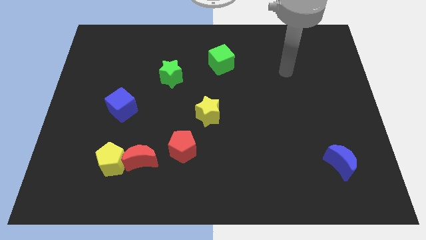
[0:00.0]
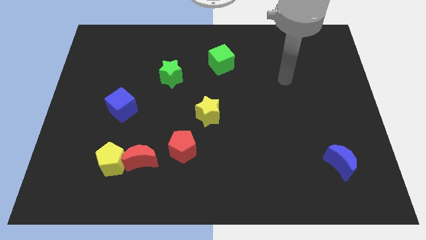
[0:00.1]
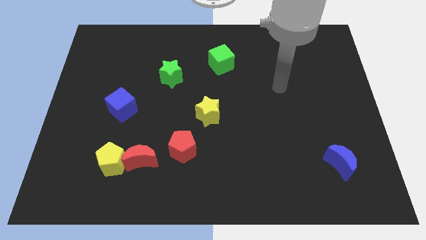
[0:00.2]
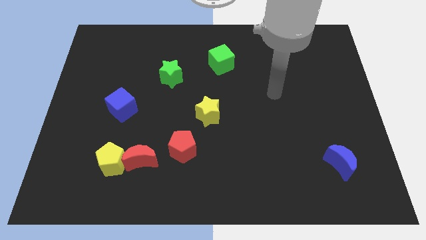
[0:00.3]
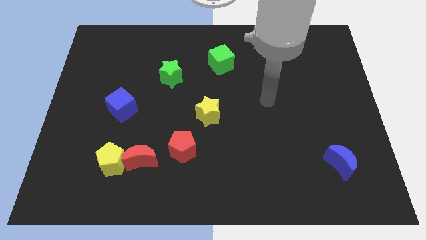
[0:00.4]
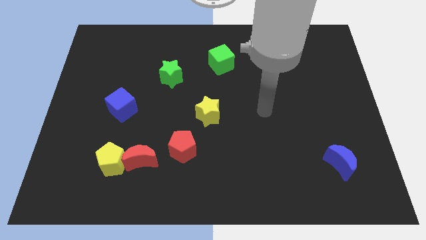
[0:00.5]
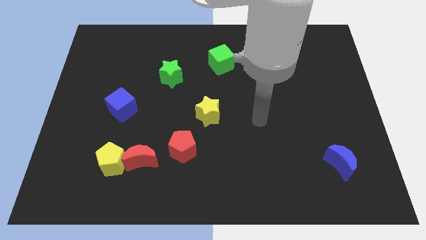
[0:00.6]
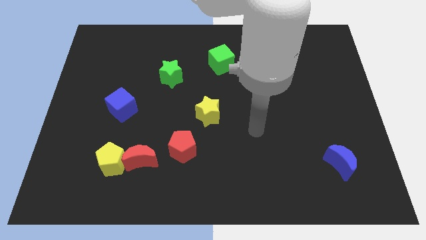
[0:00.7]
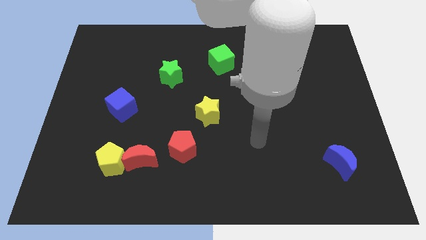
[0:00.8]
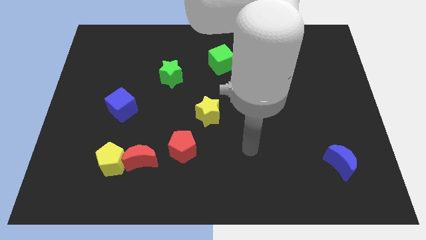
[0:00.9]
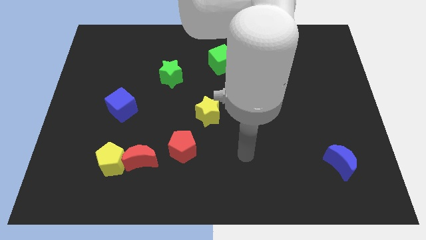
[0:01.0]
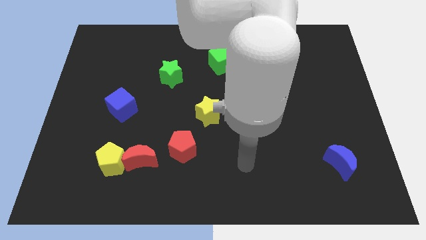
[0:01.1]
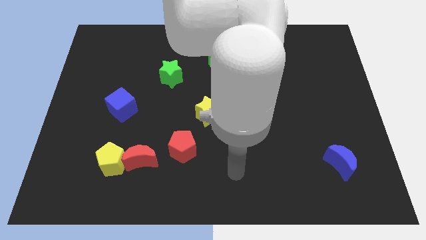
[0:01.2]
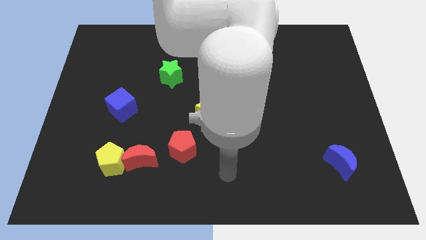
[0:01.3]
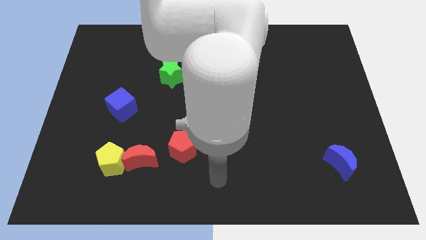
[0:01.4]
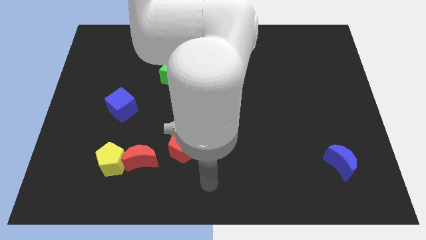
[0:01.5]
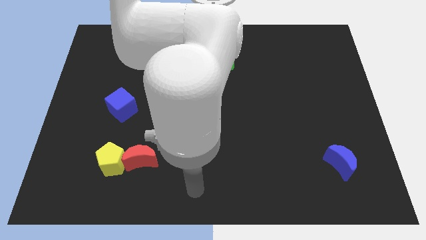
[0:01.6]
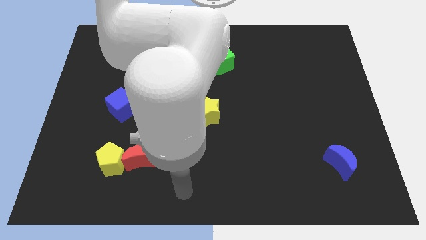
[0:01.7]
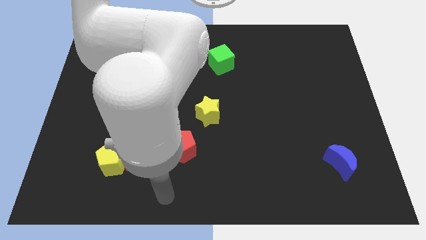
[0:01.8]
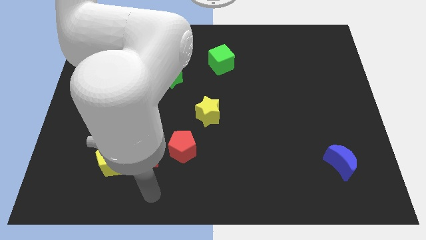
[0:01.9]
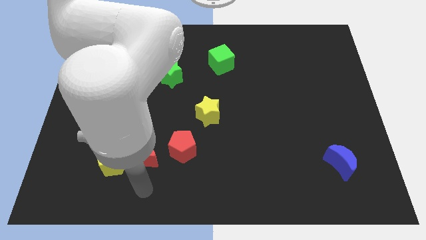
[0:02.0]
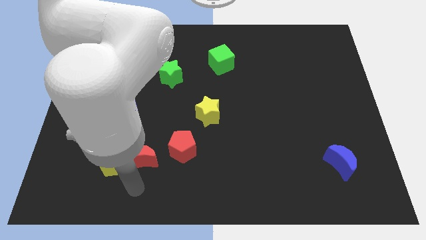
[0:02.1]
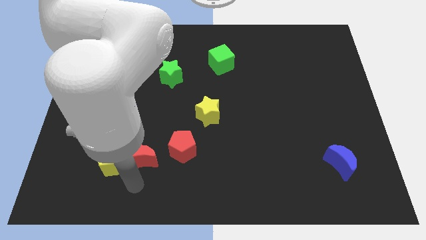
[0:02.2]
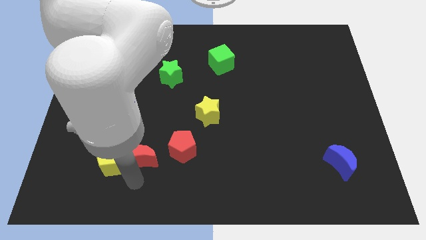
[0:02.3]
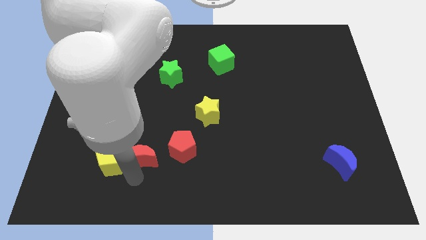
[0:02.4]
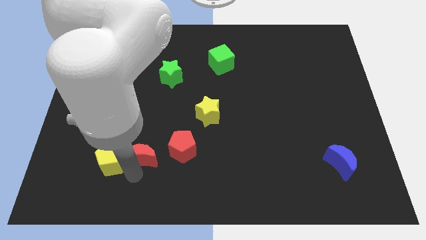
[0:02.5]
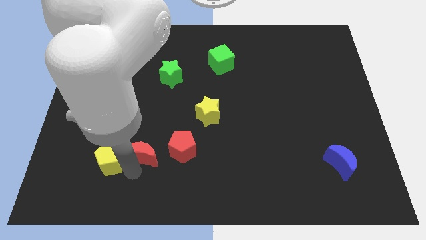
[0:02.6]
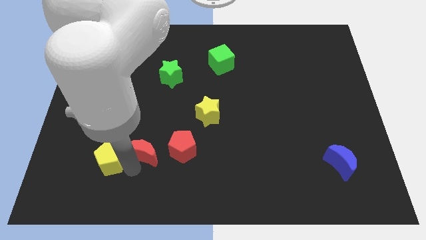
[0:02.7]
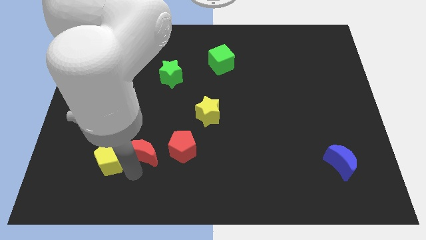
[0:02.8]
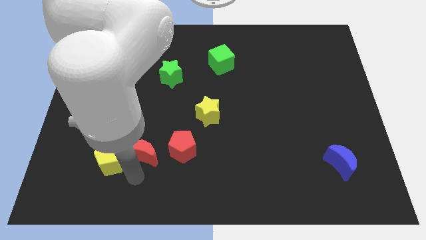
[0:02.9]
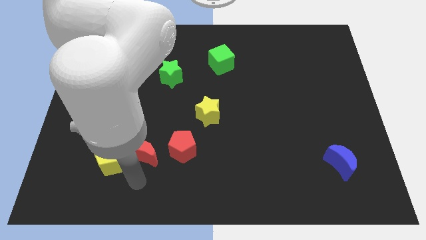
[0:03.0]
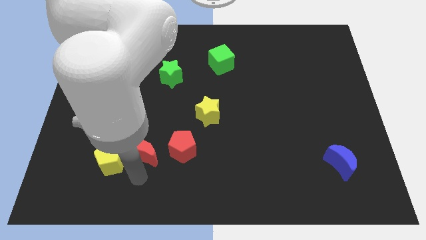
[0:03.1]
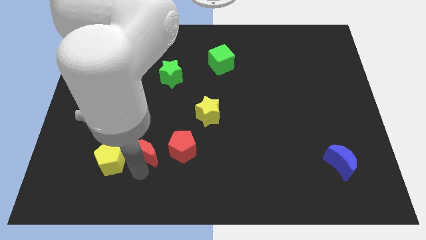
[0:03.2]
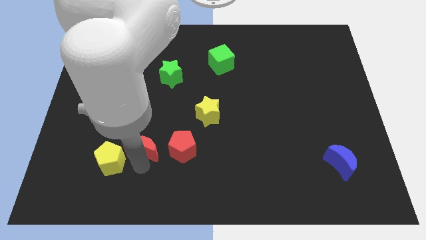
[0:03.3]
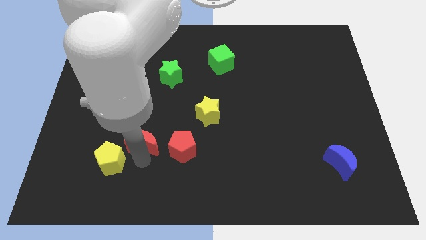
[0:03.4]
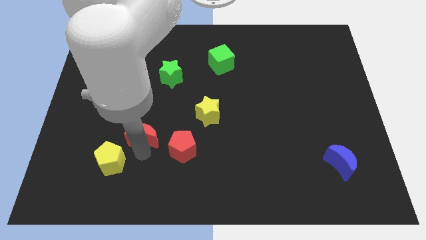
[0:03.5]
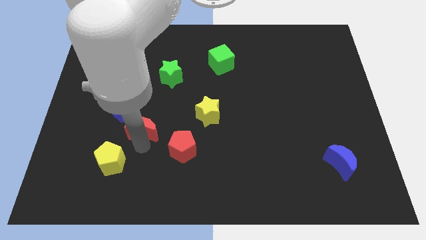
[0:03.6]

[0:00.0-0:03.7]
slightly push the red moon upwards

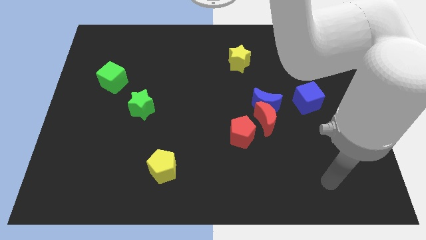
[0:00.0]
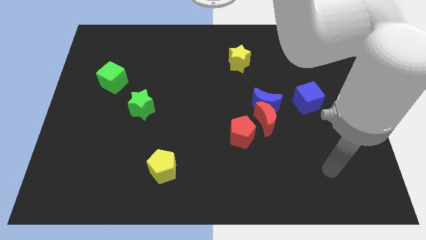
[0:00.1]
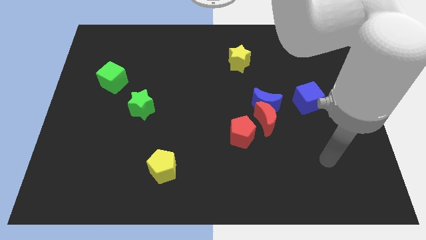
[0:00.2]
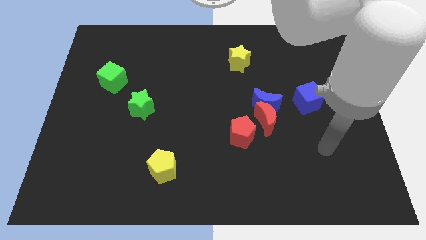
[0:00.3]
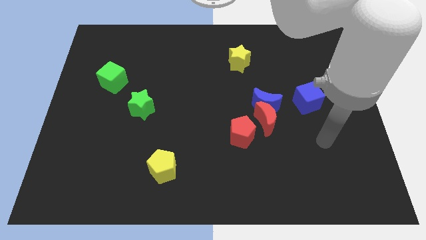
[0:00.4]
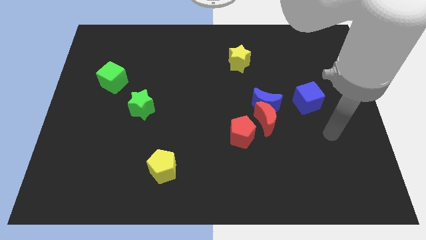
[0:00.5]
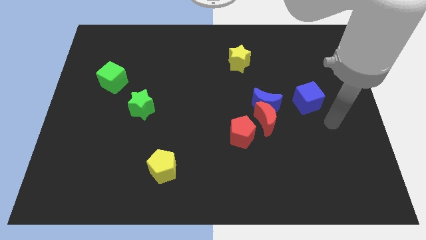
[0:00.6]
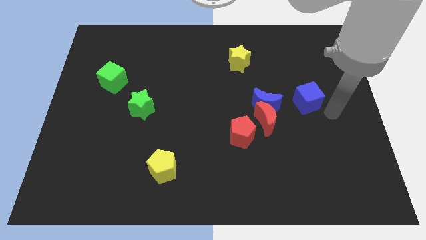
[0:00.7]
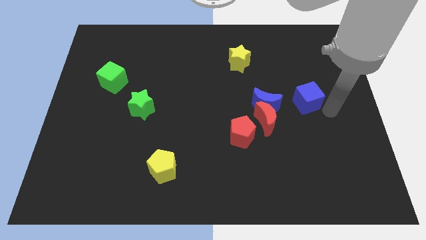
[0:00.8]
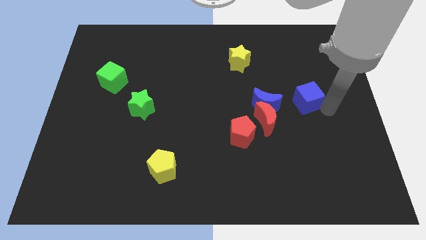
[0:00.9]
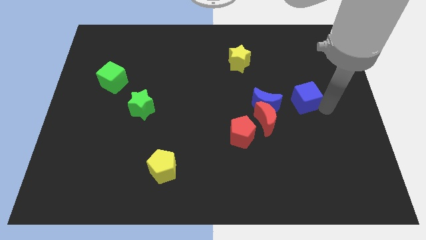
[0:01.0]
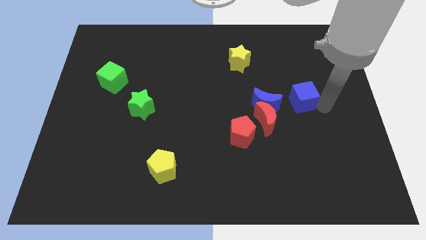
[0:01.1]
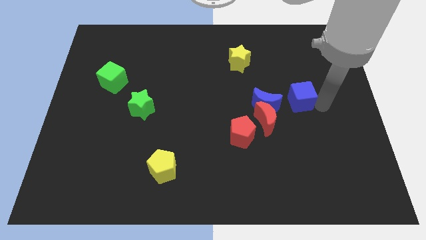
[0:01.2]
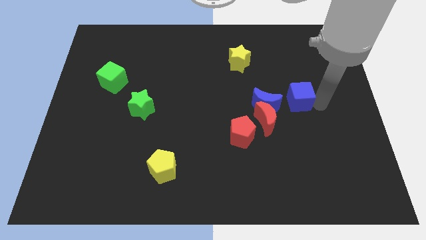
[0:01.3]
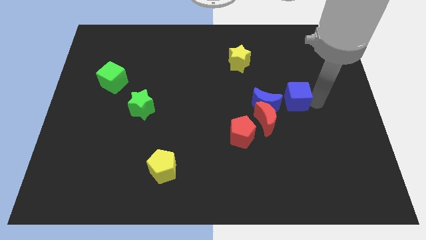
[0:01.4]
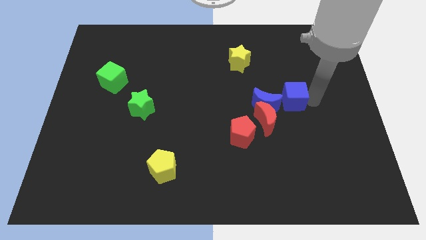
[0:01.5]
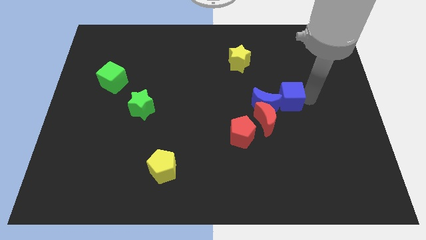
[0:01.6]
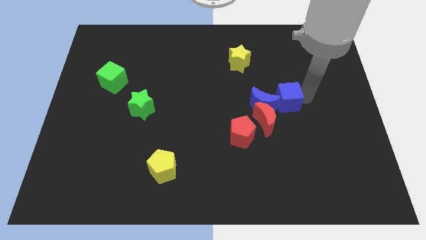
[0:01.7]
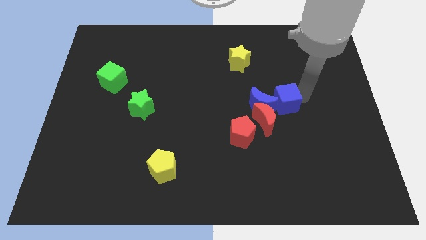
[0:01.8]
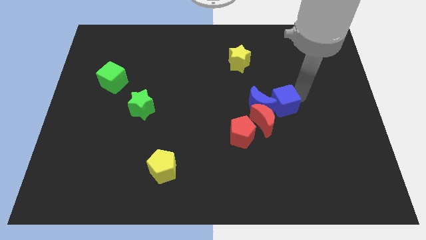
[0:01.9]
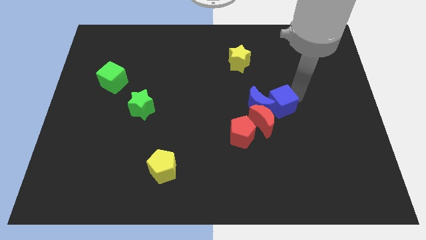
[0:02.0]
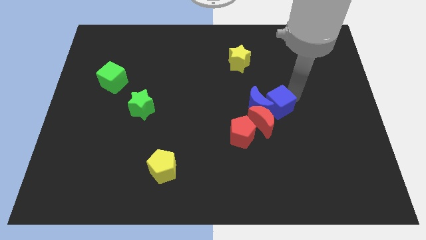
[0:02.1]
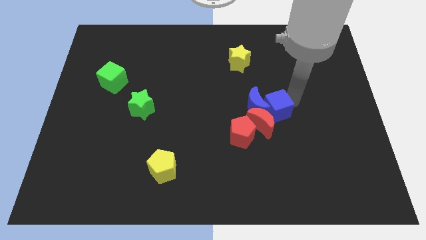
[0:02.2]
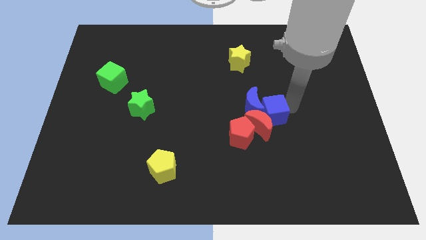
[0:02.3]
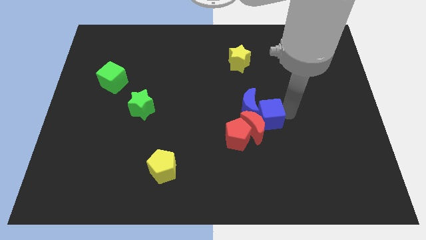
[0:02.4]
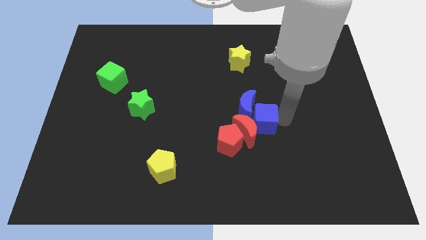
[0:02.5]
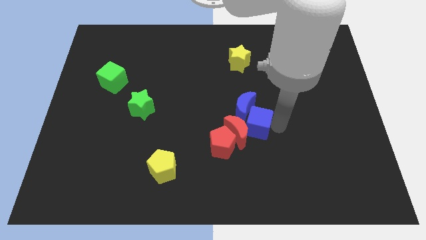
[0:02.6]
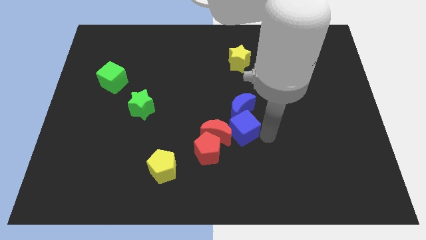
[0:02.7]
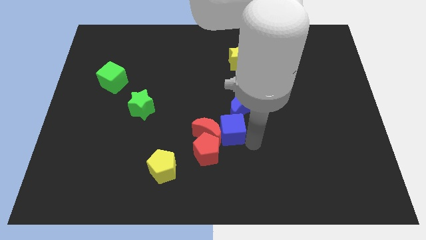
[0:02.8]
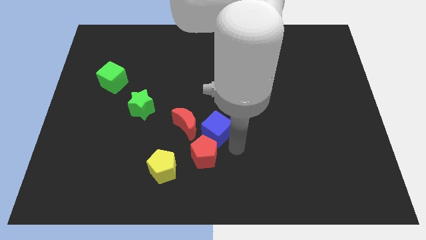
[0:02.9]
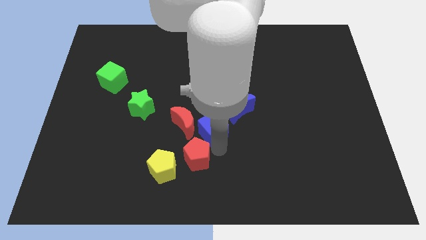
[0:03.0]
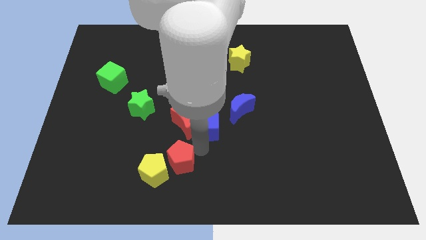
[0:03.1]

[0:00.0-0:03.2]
move the blue cube left

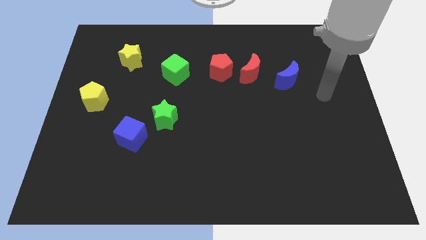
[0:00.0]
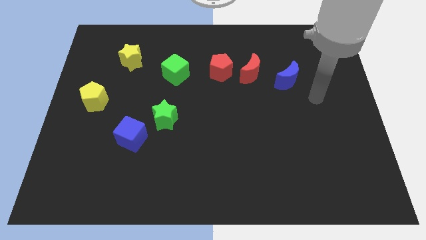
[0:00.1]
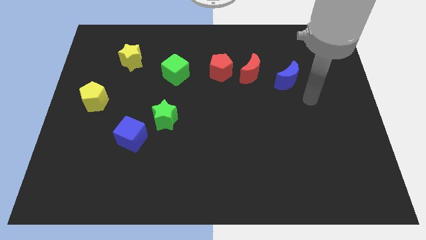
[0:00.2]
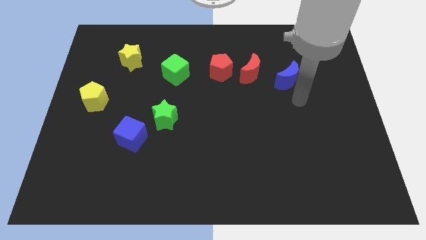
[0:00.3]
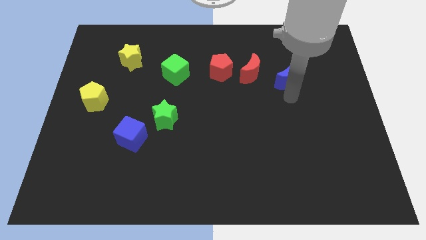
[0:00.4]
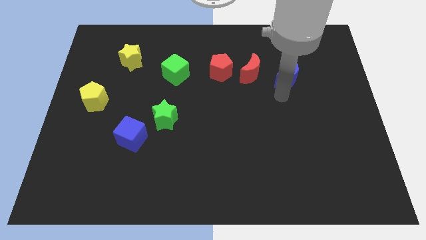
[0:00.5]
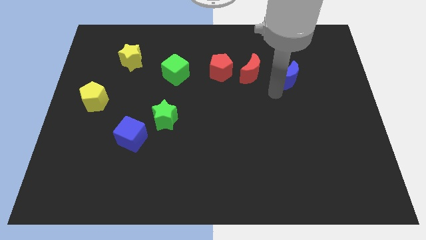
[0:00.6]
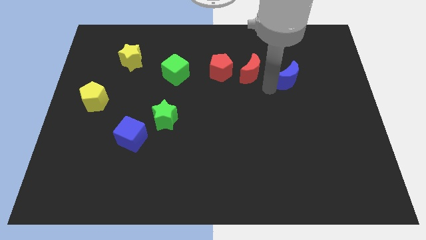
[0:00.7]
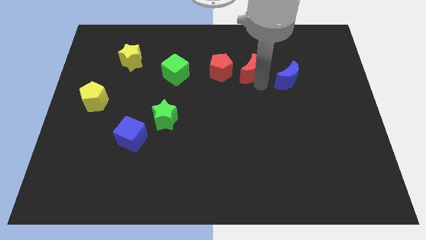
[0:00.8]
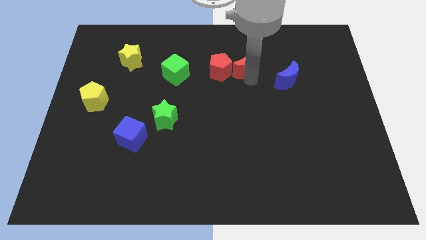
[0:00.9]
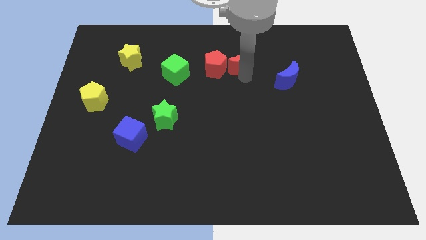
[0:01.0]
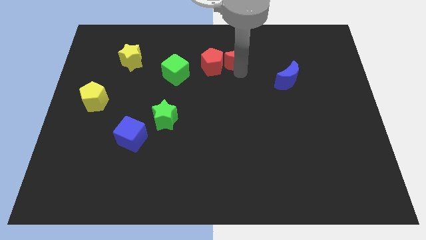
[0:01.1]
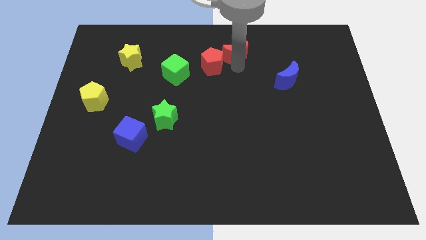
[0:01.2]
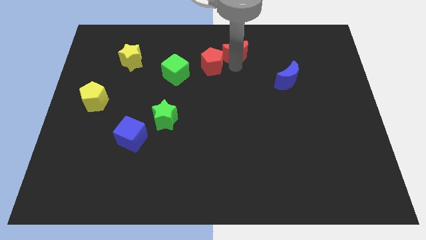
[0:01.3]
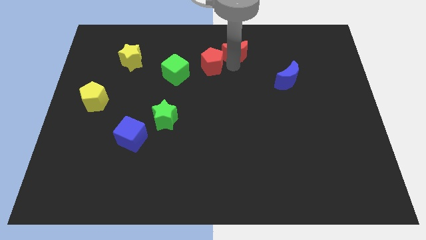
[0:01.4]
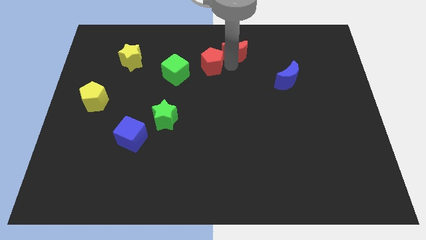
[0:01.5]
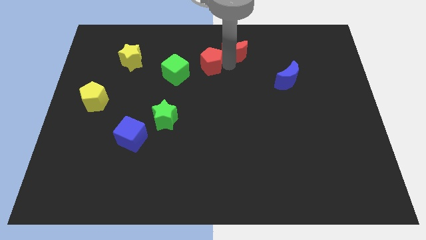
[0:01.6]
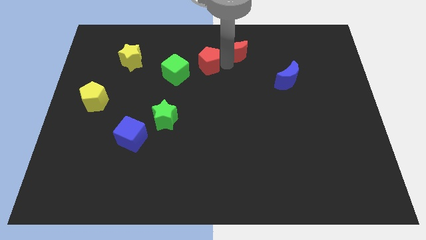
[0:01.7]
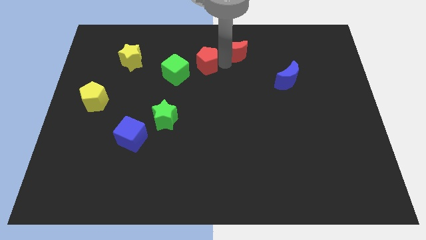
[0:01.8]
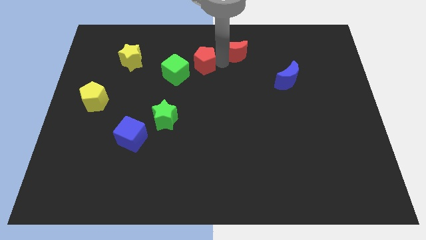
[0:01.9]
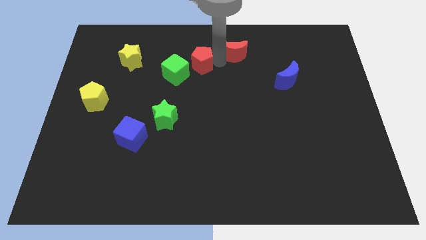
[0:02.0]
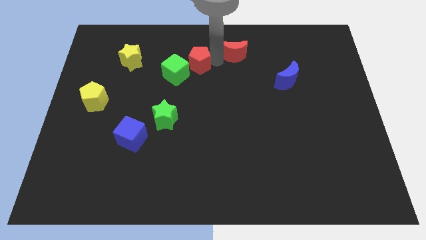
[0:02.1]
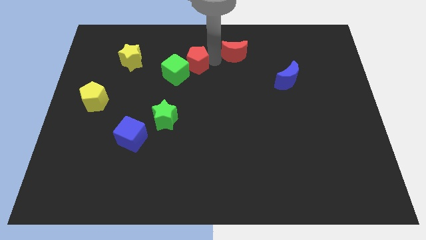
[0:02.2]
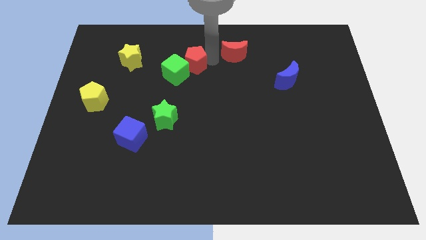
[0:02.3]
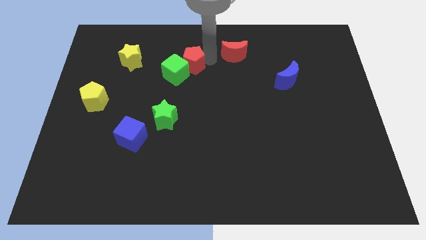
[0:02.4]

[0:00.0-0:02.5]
push the red pentagon to the left somewhat
